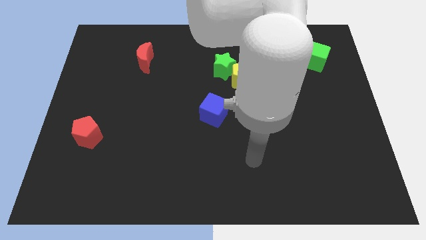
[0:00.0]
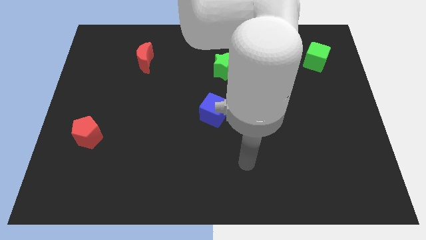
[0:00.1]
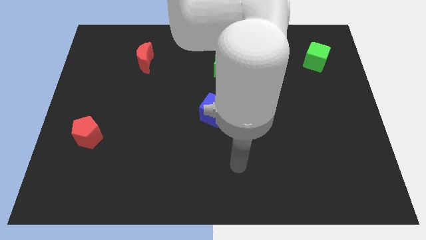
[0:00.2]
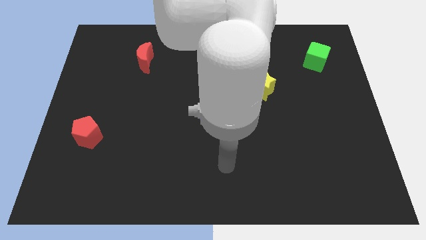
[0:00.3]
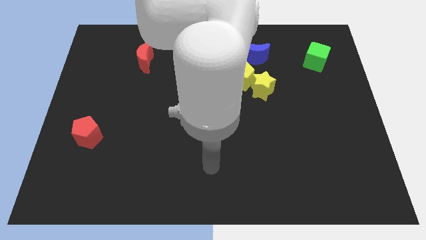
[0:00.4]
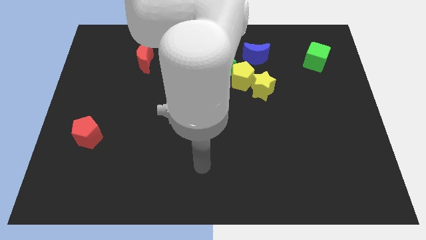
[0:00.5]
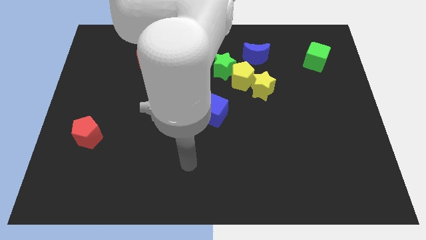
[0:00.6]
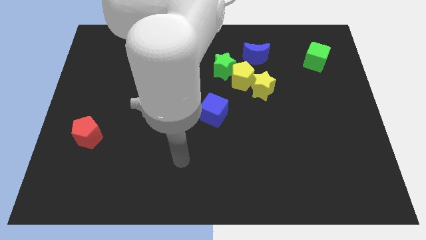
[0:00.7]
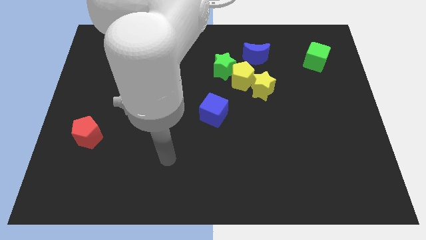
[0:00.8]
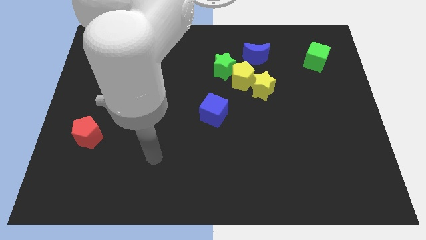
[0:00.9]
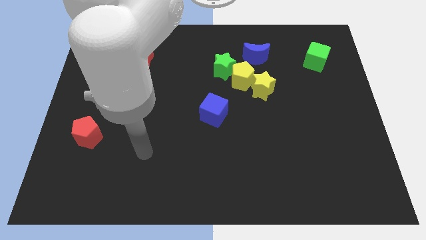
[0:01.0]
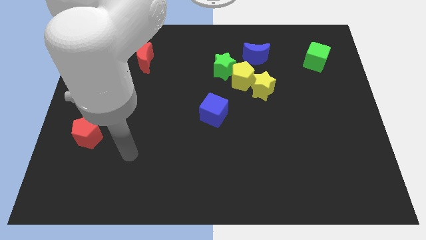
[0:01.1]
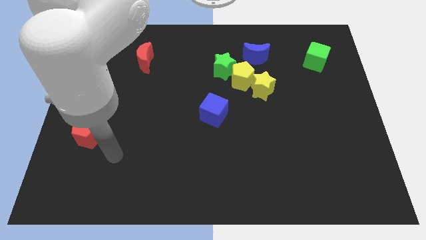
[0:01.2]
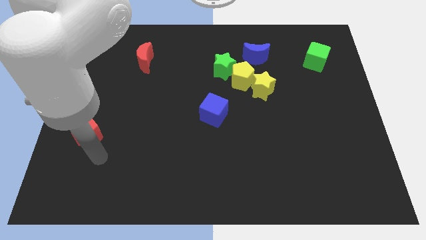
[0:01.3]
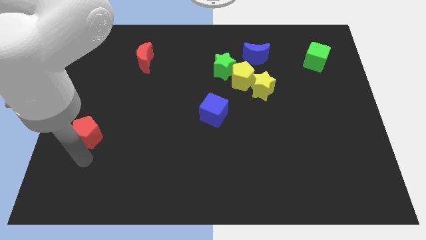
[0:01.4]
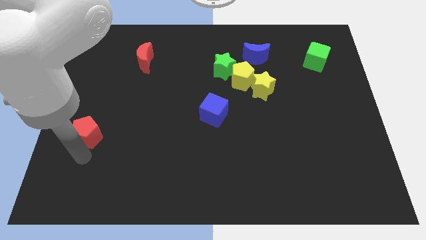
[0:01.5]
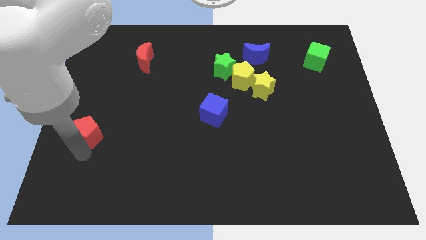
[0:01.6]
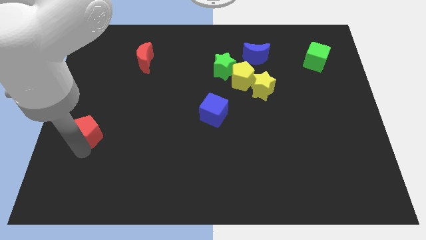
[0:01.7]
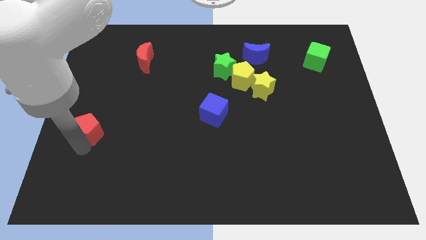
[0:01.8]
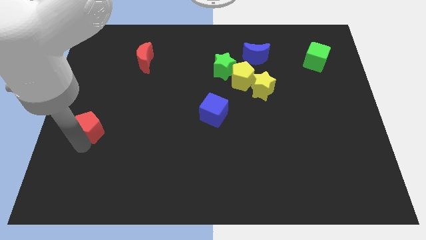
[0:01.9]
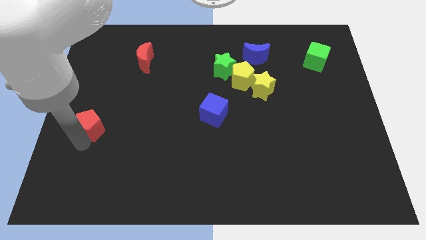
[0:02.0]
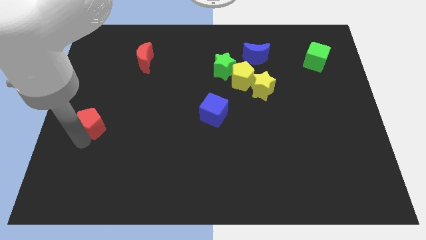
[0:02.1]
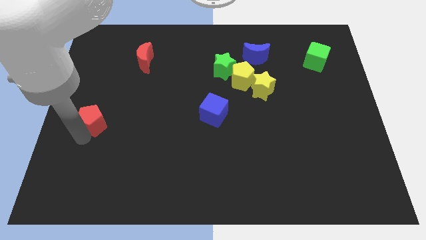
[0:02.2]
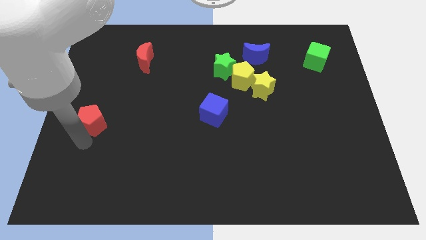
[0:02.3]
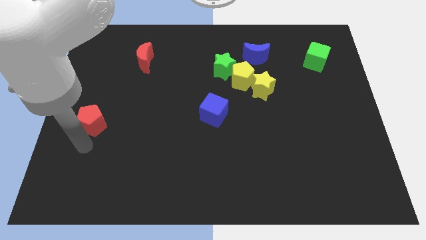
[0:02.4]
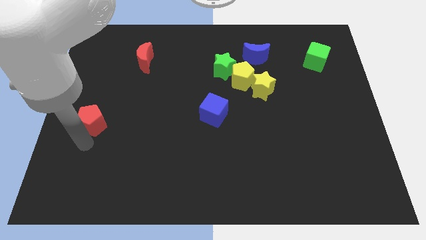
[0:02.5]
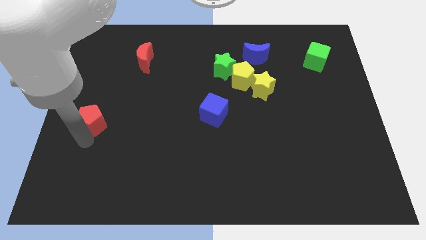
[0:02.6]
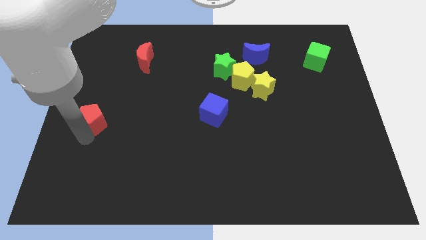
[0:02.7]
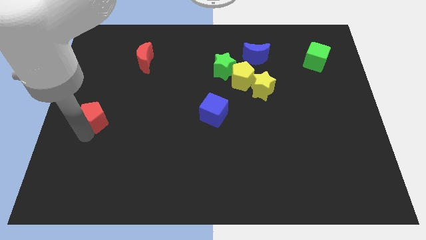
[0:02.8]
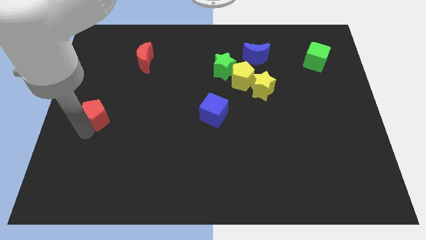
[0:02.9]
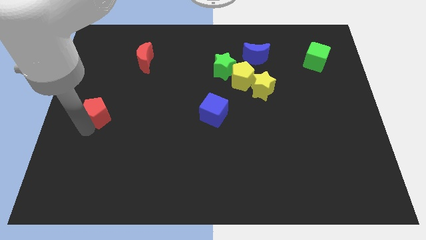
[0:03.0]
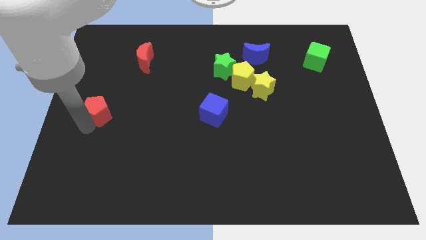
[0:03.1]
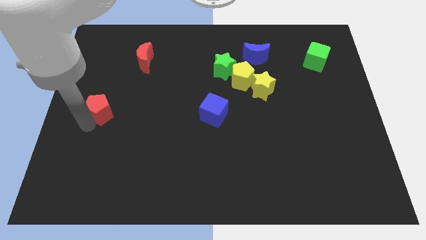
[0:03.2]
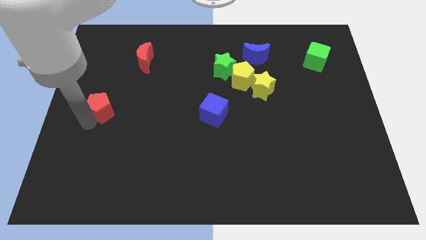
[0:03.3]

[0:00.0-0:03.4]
move the red pentagon upwards a bit

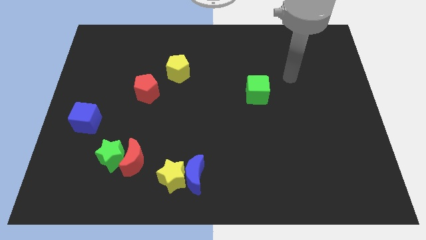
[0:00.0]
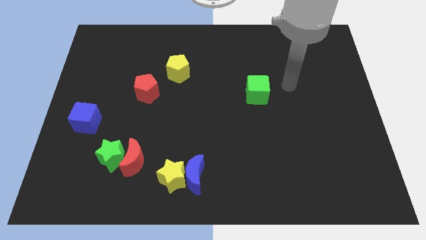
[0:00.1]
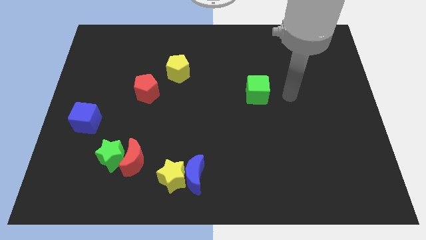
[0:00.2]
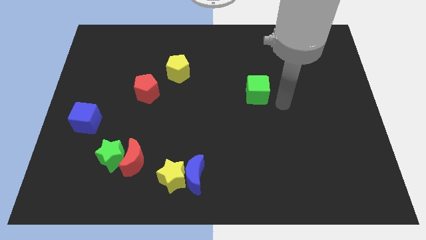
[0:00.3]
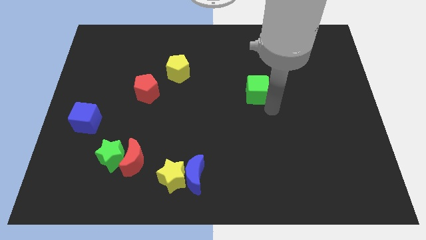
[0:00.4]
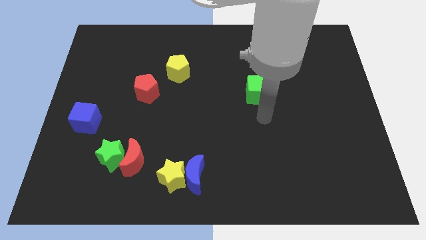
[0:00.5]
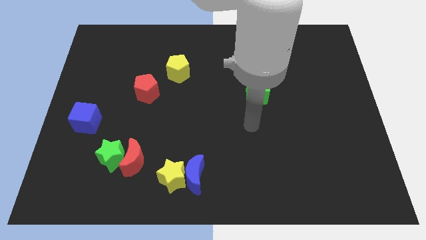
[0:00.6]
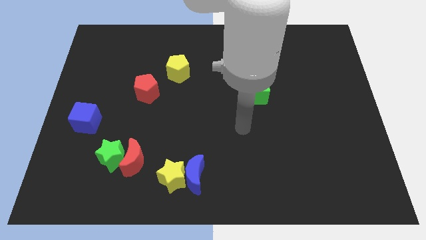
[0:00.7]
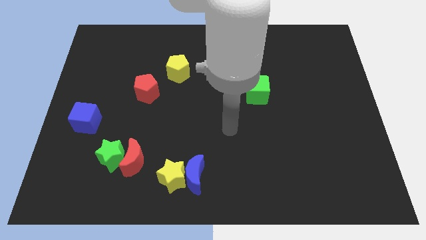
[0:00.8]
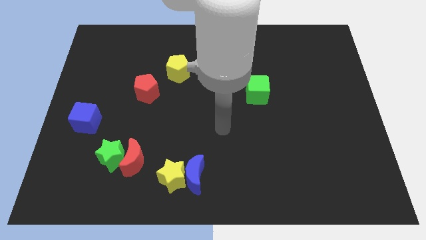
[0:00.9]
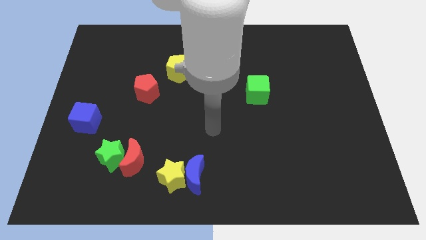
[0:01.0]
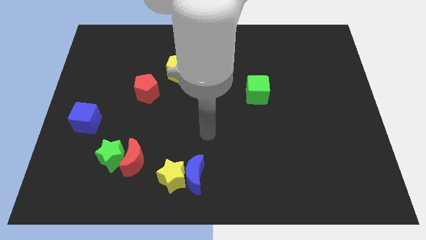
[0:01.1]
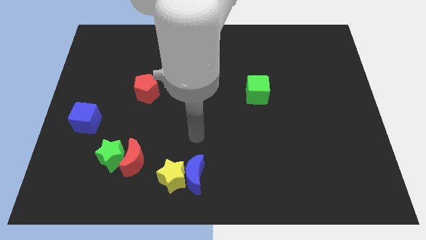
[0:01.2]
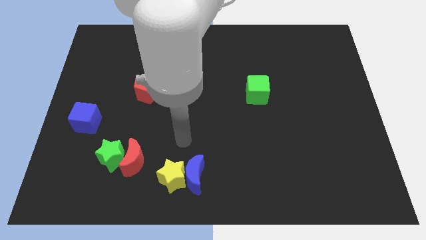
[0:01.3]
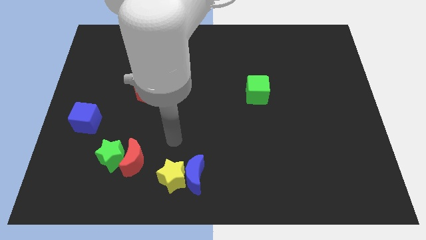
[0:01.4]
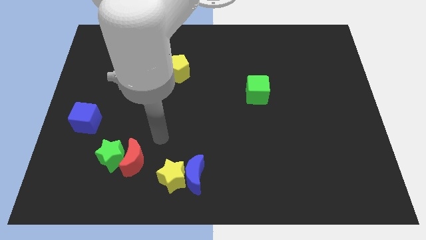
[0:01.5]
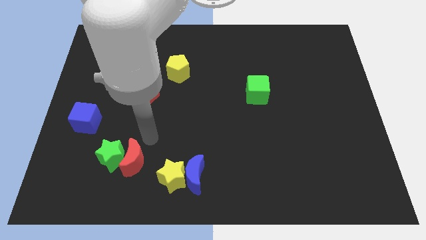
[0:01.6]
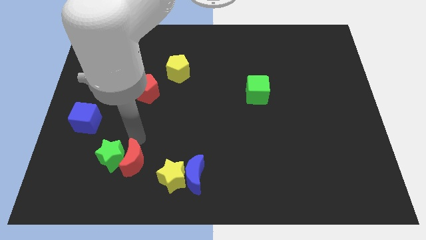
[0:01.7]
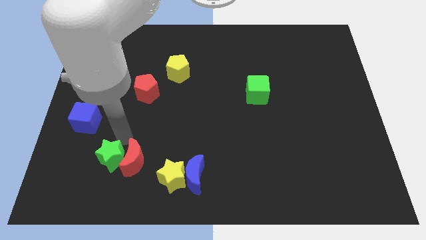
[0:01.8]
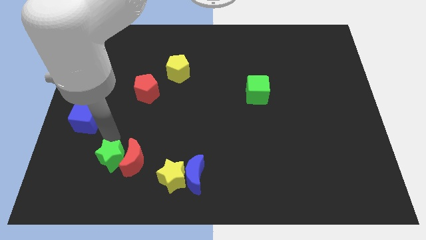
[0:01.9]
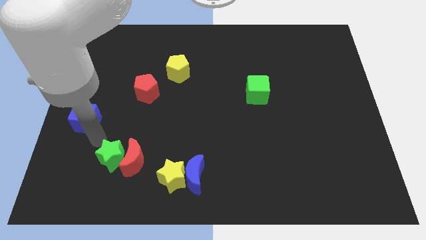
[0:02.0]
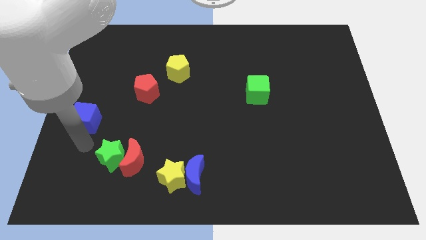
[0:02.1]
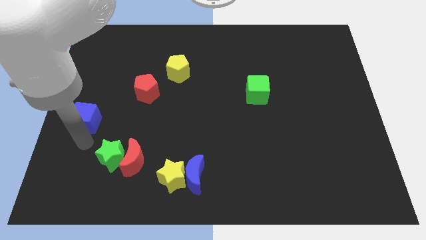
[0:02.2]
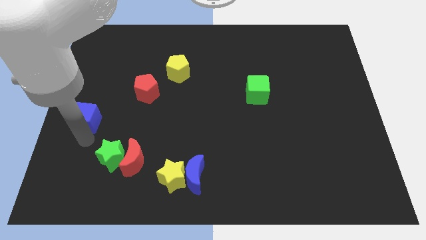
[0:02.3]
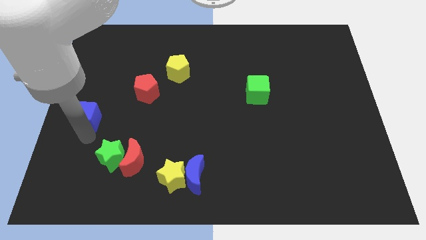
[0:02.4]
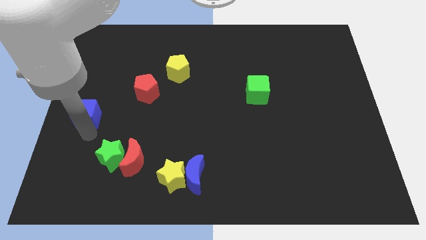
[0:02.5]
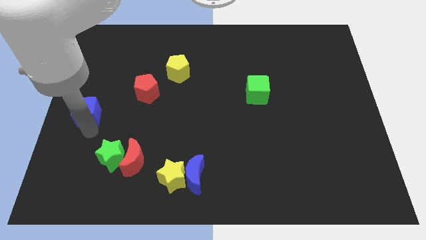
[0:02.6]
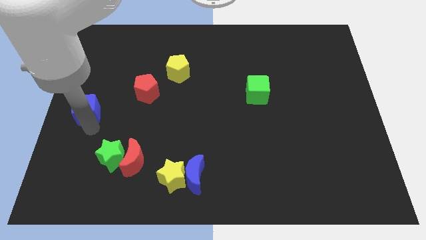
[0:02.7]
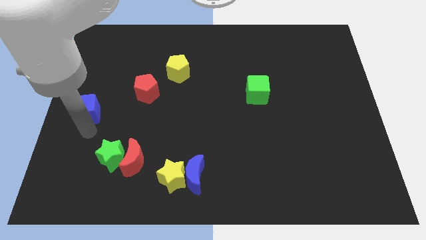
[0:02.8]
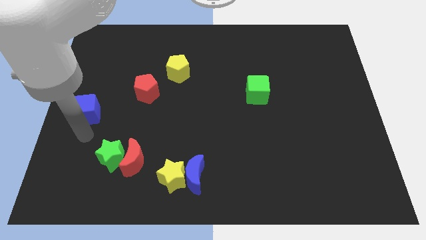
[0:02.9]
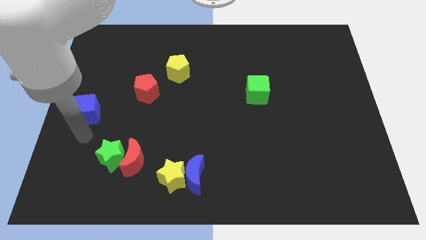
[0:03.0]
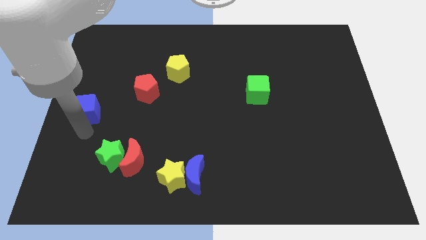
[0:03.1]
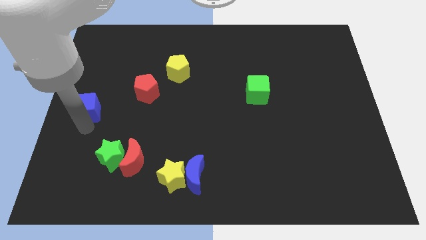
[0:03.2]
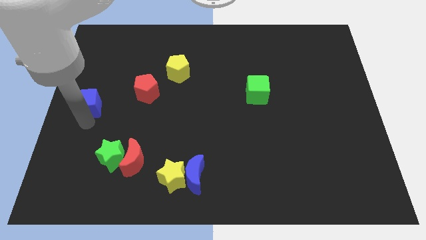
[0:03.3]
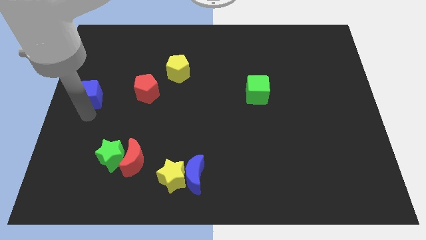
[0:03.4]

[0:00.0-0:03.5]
move the blue cube a little upwards

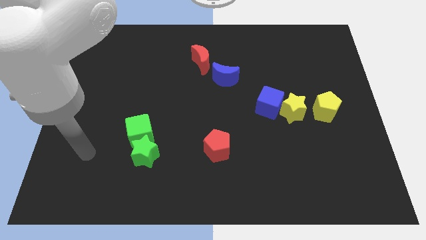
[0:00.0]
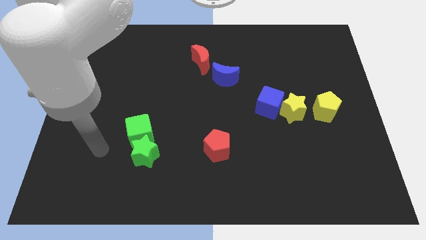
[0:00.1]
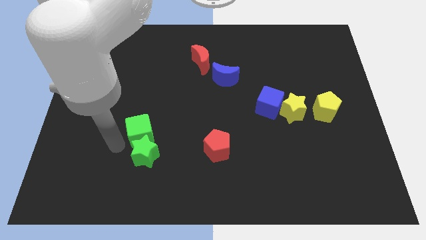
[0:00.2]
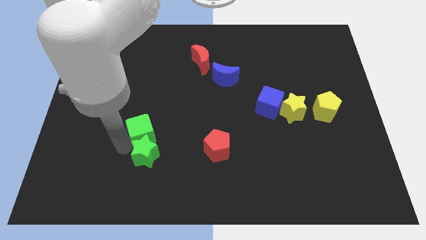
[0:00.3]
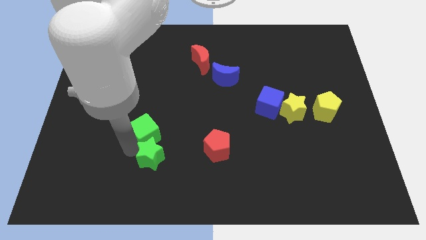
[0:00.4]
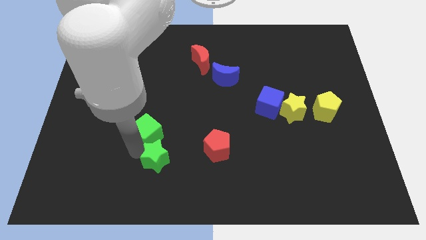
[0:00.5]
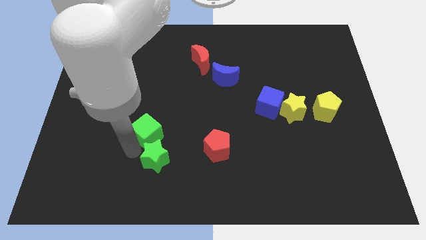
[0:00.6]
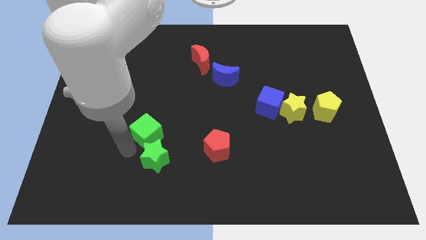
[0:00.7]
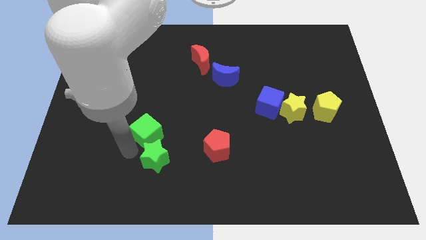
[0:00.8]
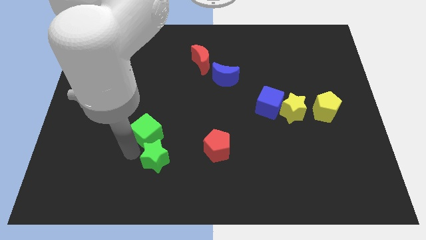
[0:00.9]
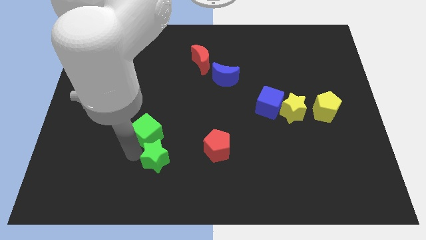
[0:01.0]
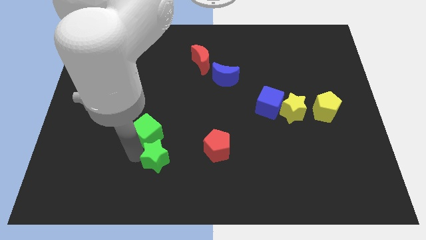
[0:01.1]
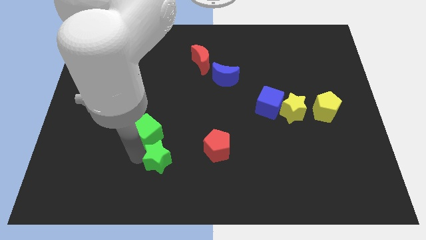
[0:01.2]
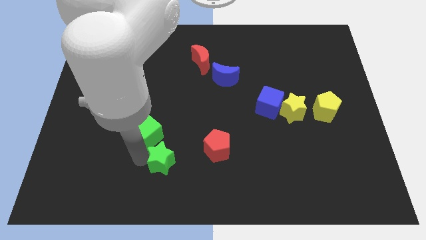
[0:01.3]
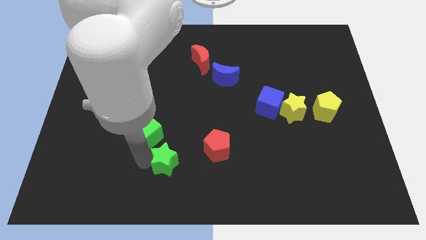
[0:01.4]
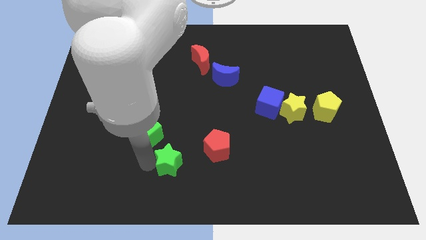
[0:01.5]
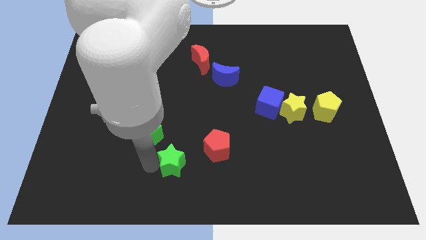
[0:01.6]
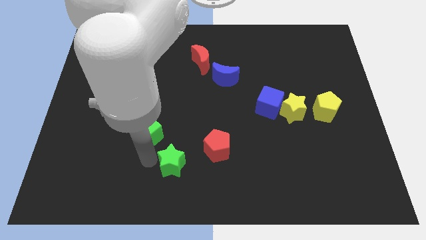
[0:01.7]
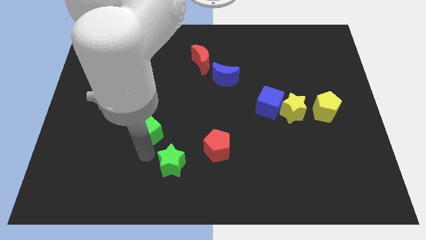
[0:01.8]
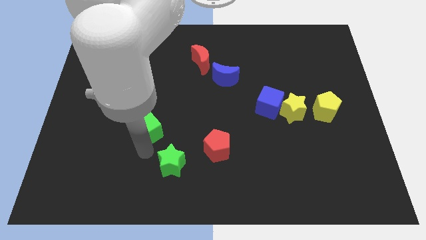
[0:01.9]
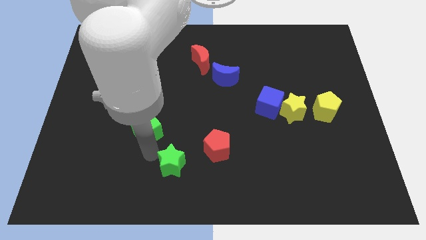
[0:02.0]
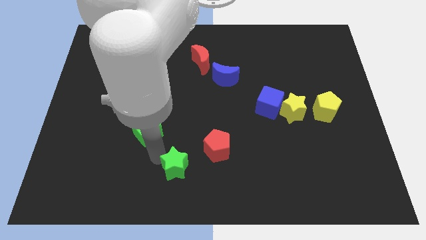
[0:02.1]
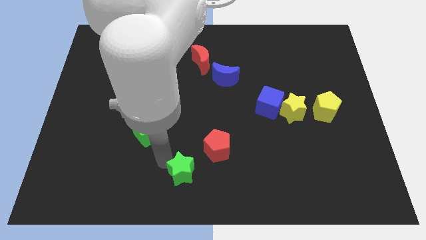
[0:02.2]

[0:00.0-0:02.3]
move the green star to the right a little
